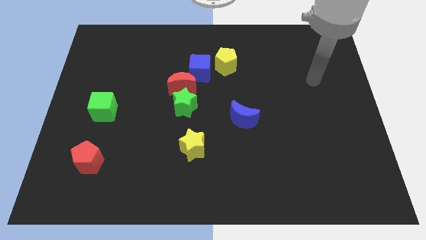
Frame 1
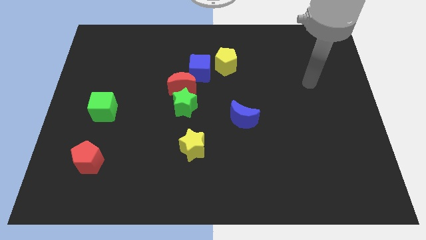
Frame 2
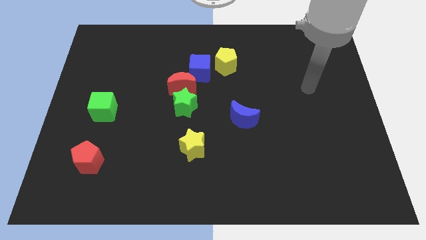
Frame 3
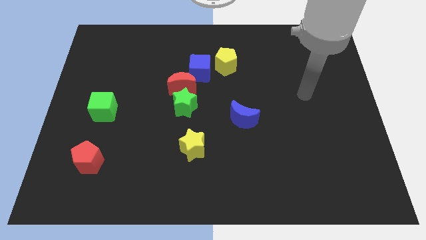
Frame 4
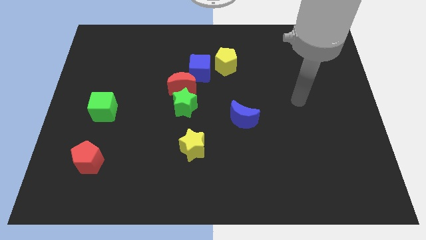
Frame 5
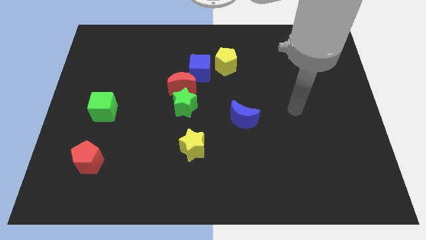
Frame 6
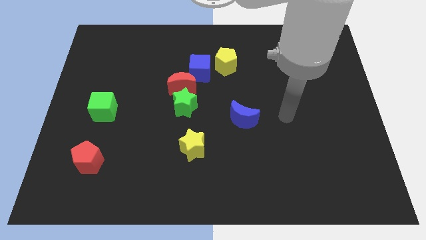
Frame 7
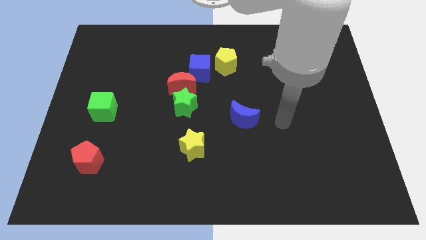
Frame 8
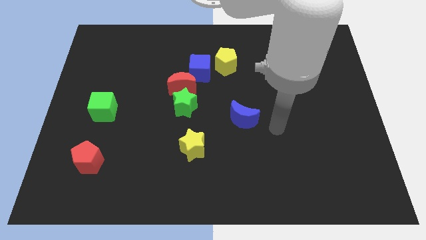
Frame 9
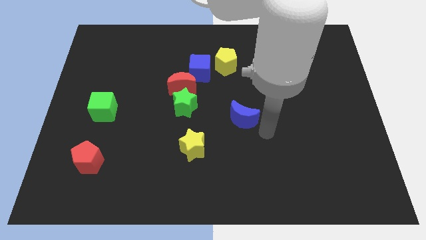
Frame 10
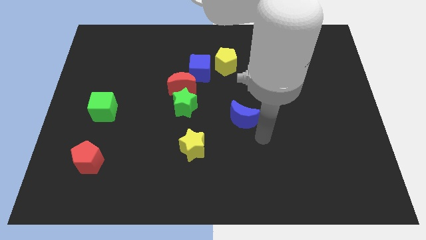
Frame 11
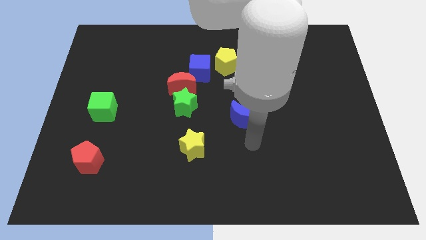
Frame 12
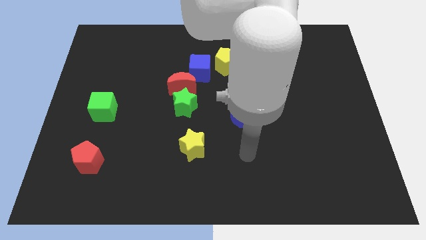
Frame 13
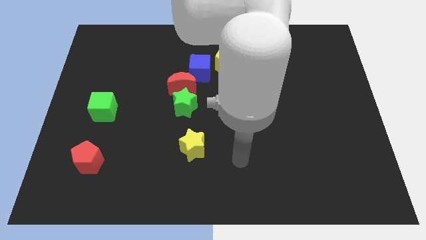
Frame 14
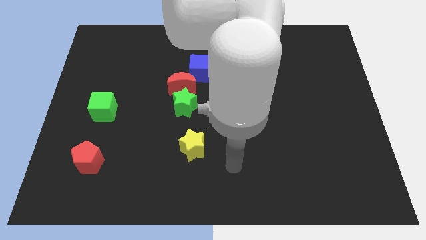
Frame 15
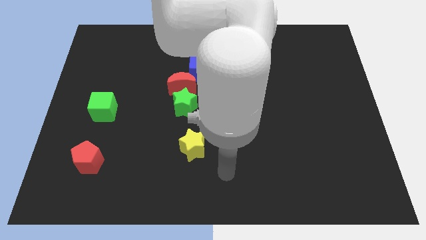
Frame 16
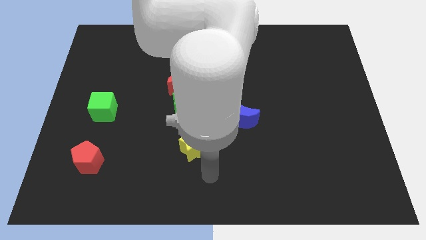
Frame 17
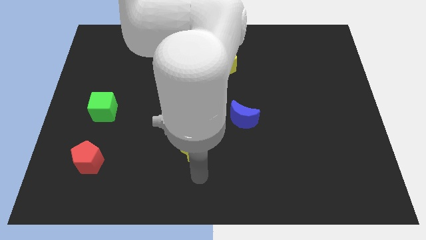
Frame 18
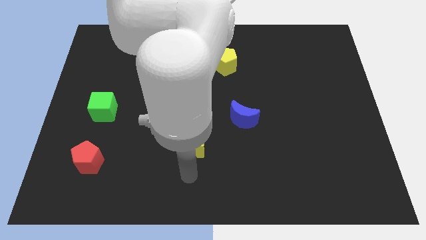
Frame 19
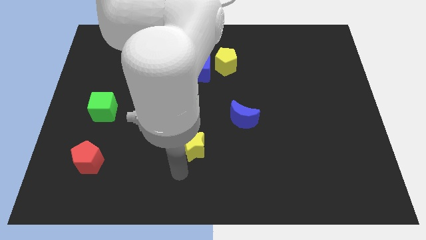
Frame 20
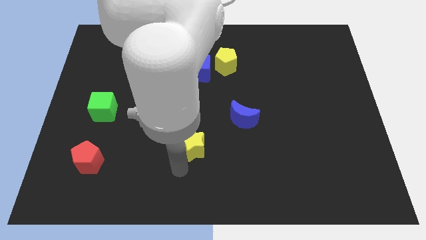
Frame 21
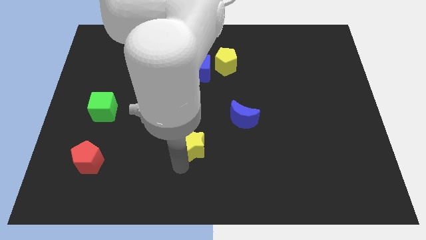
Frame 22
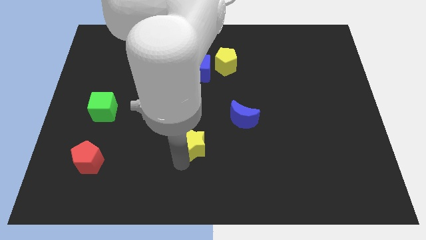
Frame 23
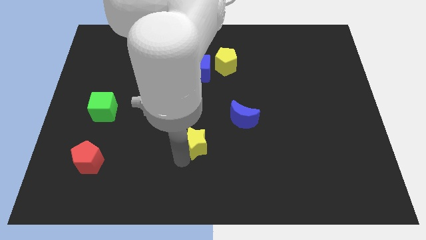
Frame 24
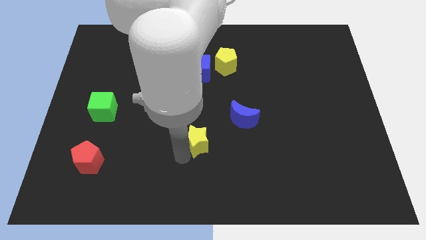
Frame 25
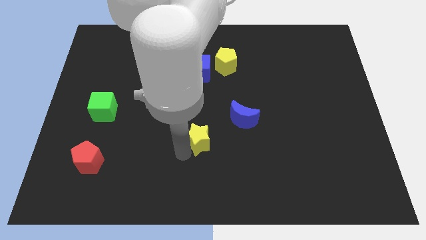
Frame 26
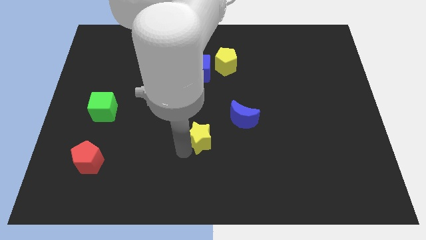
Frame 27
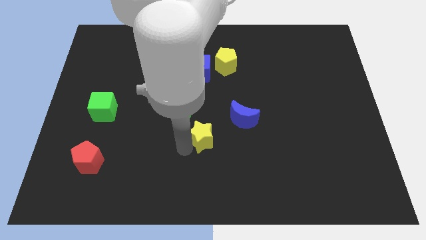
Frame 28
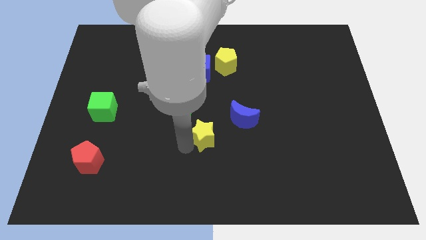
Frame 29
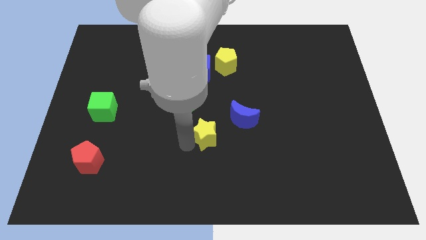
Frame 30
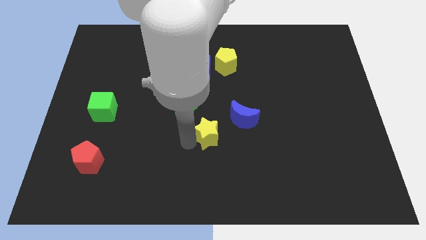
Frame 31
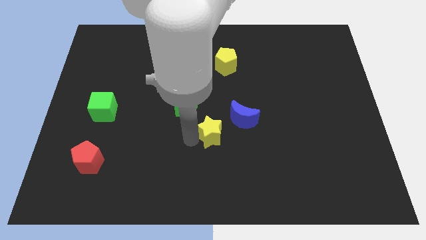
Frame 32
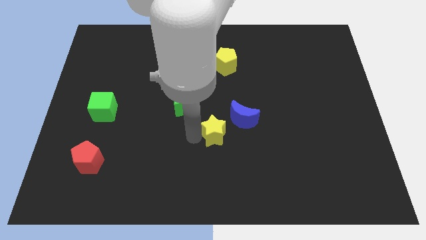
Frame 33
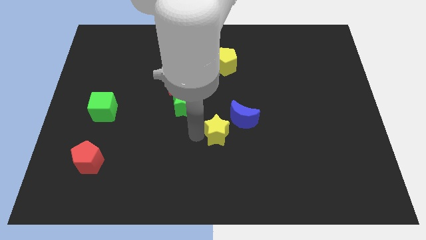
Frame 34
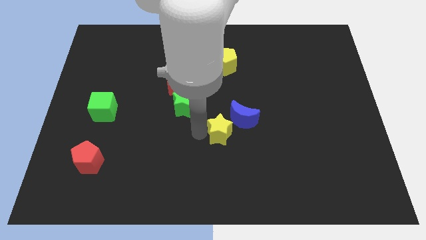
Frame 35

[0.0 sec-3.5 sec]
push the yellow star slightly upwards and right diagonally

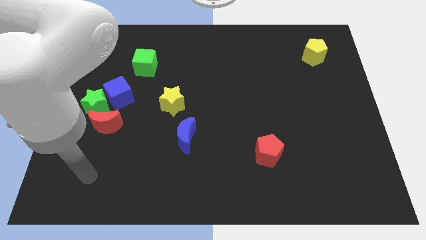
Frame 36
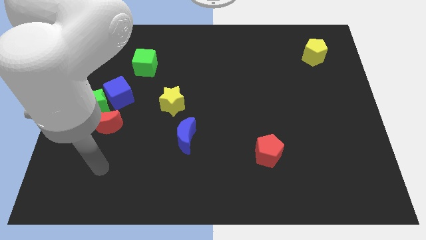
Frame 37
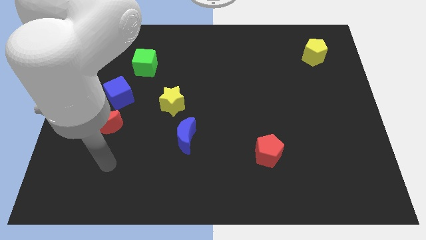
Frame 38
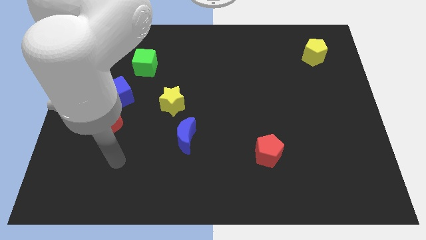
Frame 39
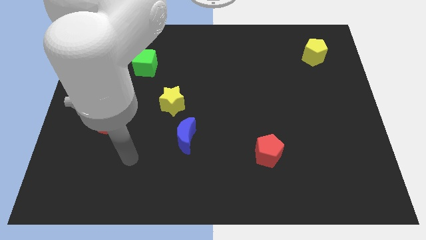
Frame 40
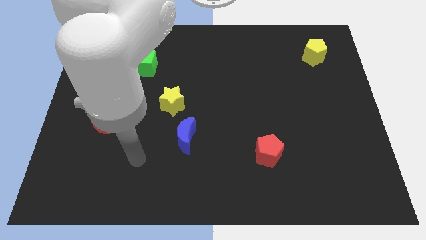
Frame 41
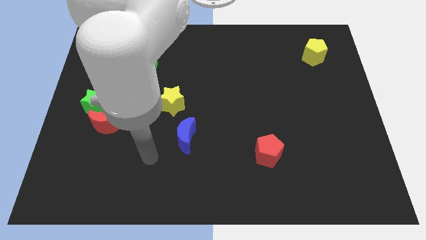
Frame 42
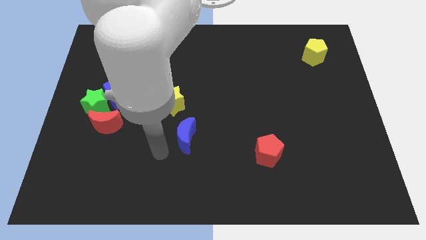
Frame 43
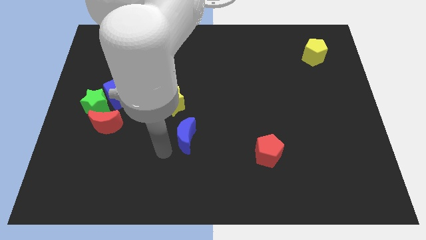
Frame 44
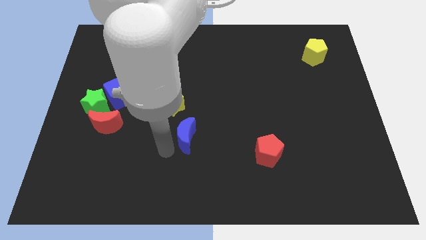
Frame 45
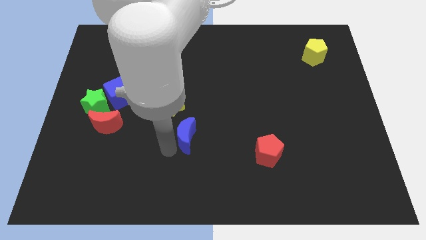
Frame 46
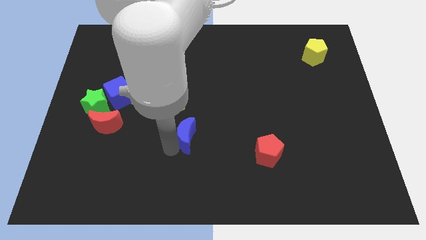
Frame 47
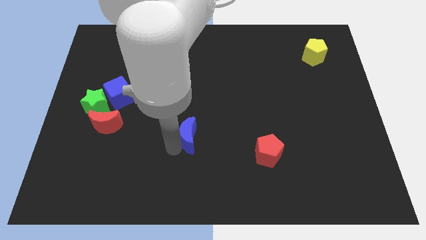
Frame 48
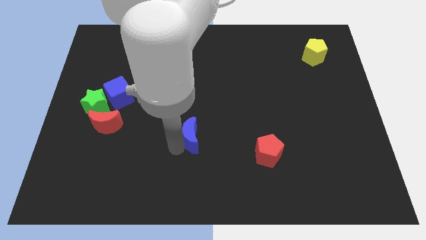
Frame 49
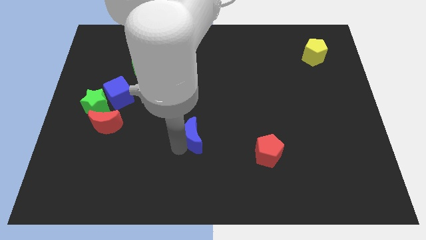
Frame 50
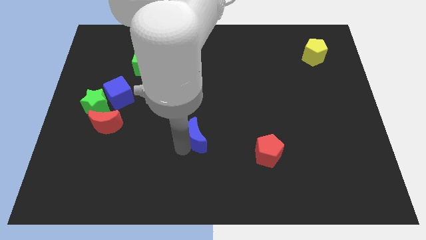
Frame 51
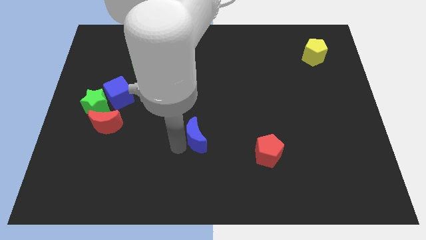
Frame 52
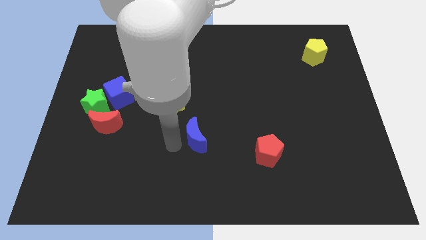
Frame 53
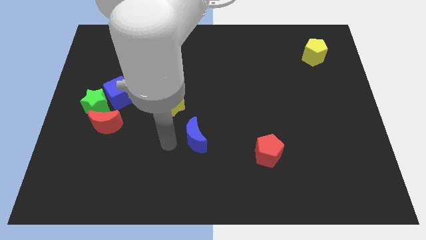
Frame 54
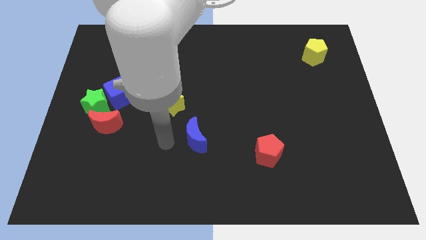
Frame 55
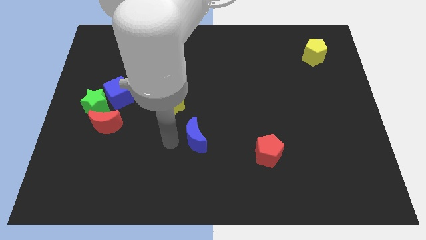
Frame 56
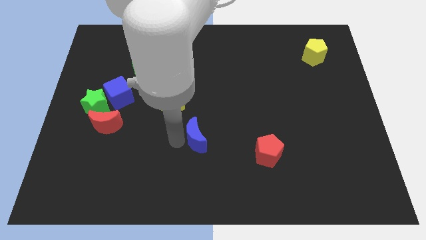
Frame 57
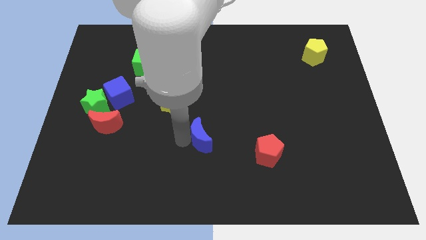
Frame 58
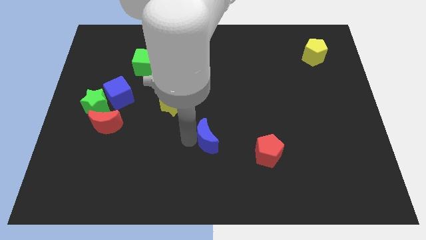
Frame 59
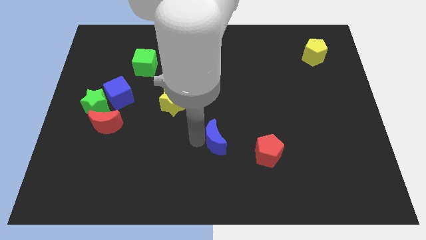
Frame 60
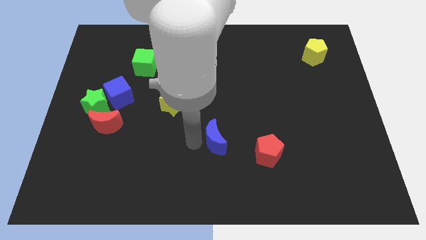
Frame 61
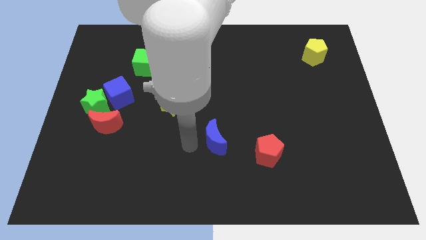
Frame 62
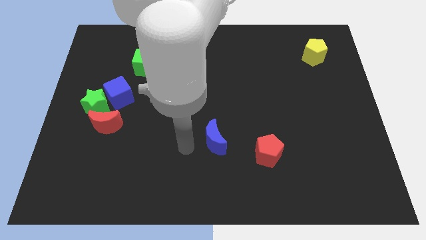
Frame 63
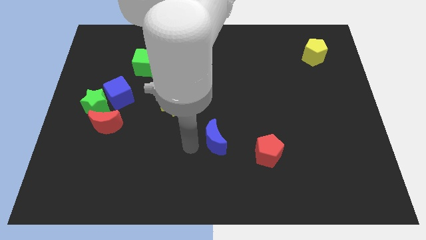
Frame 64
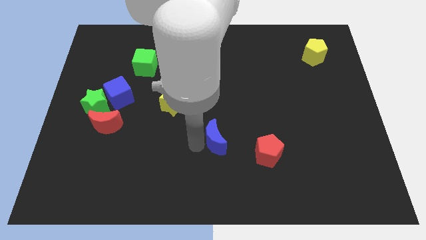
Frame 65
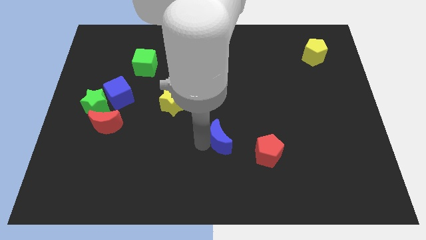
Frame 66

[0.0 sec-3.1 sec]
push the blue moon to the right a bit

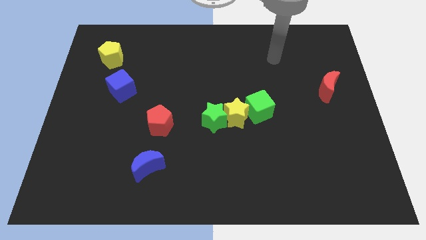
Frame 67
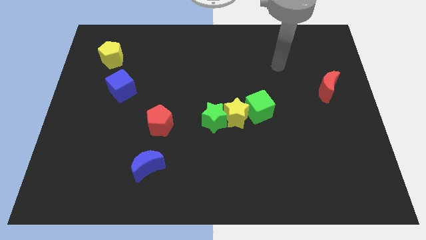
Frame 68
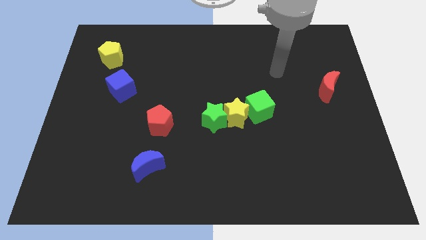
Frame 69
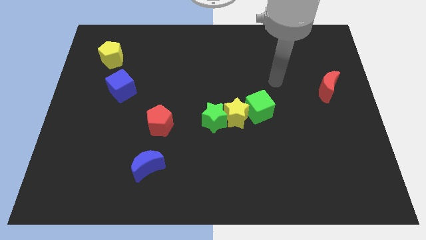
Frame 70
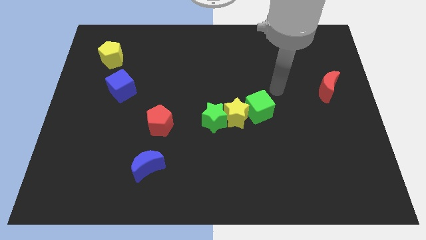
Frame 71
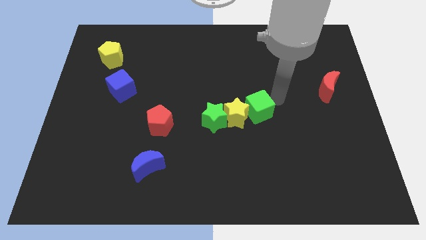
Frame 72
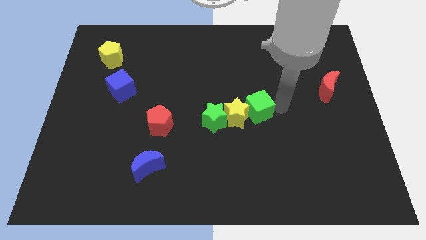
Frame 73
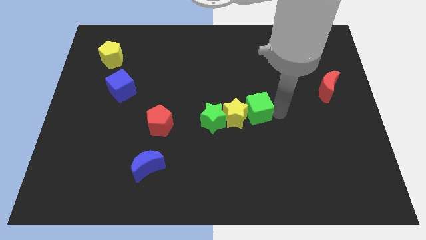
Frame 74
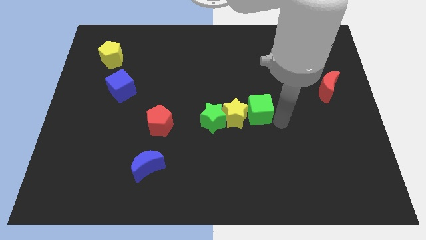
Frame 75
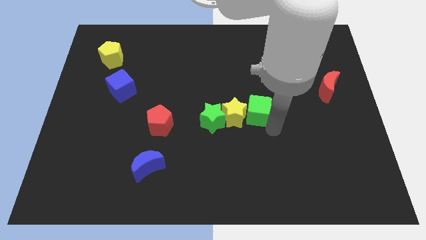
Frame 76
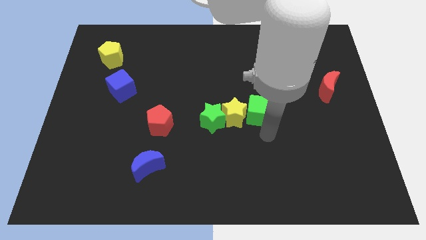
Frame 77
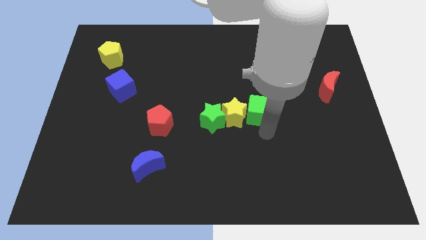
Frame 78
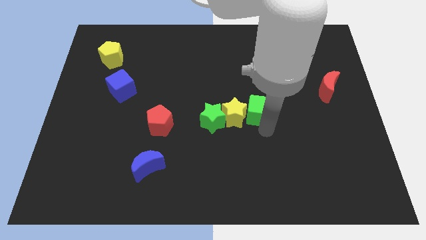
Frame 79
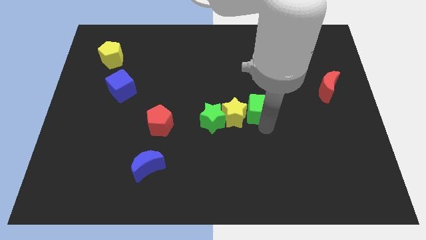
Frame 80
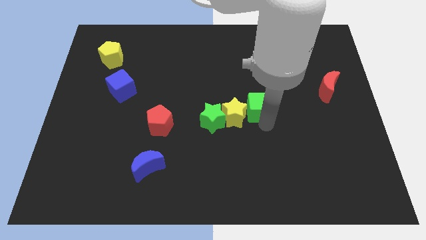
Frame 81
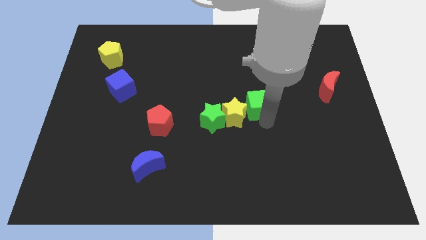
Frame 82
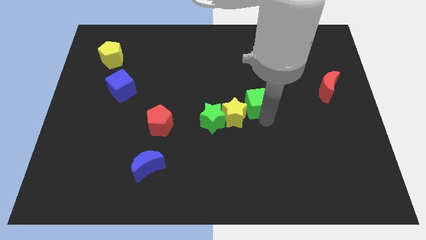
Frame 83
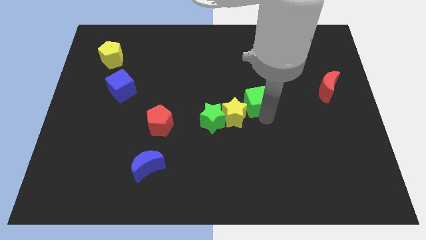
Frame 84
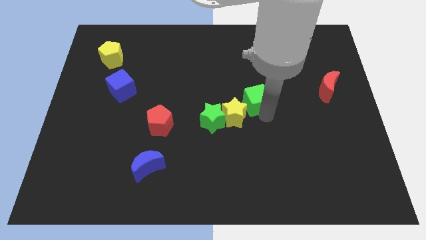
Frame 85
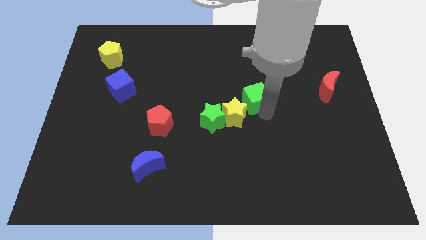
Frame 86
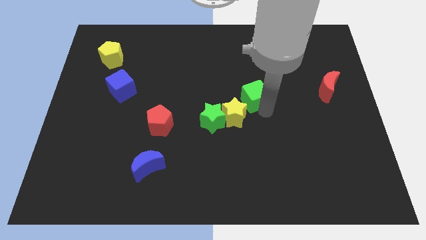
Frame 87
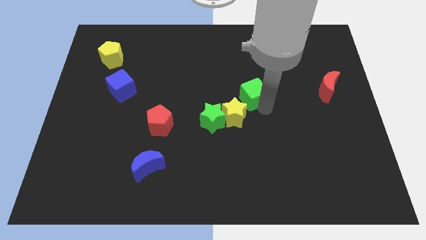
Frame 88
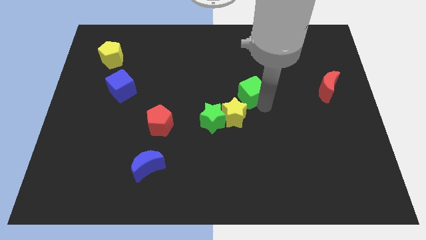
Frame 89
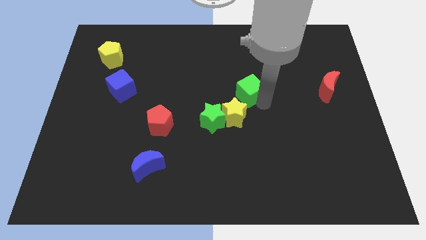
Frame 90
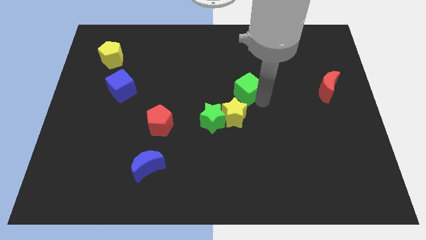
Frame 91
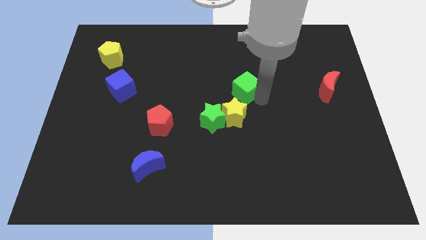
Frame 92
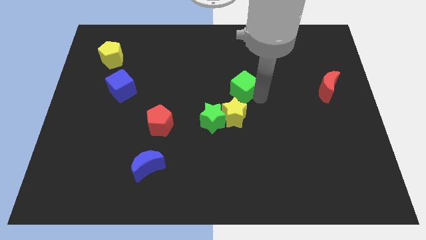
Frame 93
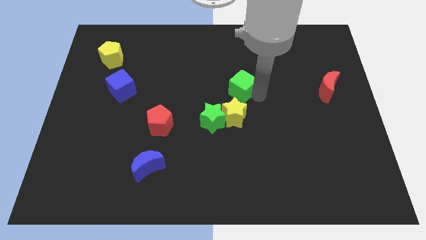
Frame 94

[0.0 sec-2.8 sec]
slightly move the green cube upwards and to the left
